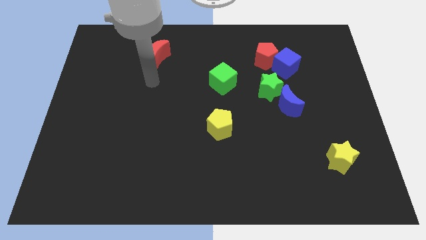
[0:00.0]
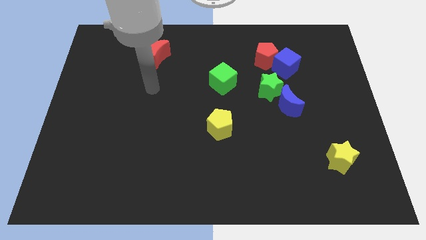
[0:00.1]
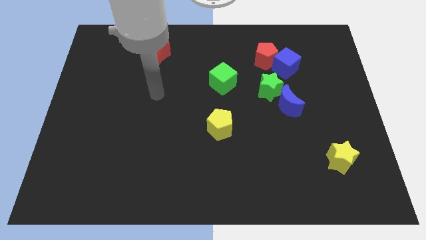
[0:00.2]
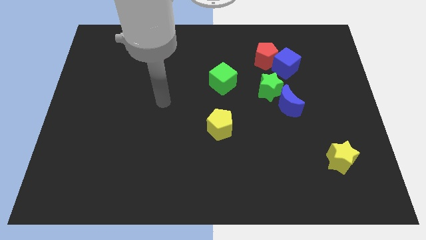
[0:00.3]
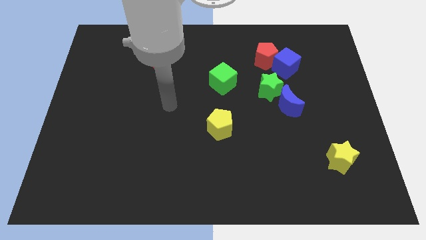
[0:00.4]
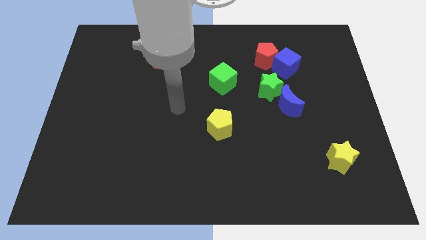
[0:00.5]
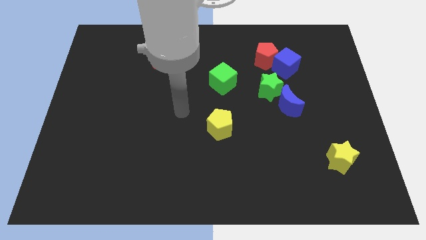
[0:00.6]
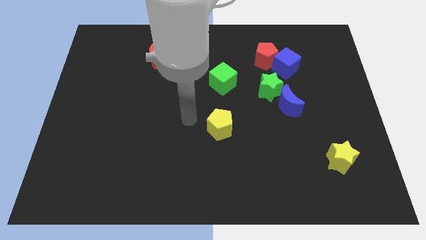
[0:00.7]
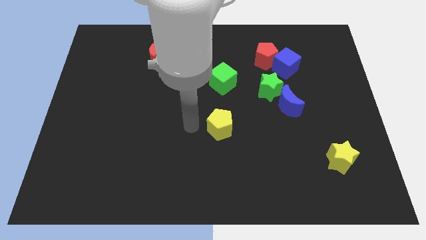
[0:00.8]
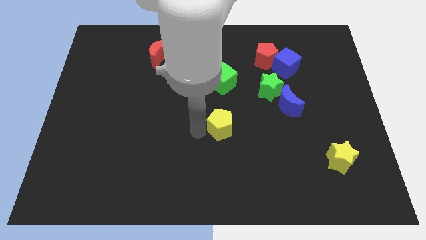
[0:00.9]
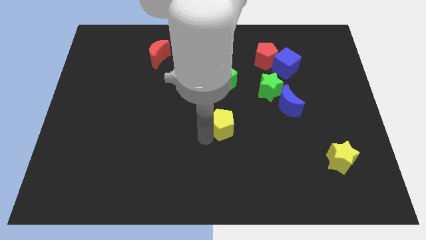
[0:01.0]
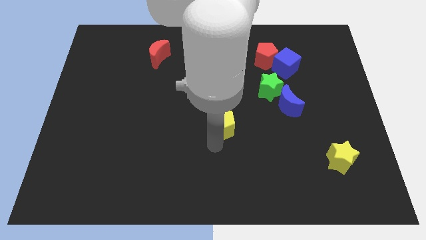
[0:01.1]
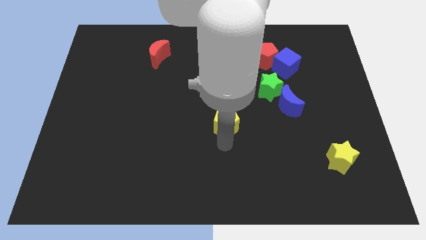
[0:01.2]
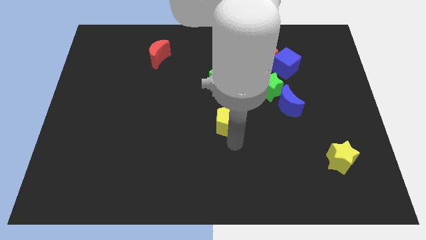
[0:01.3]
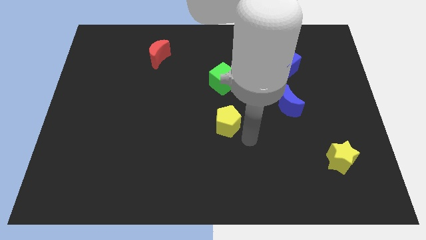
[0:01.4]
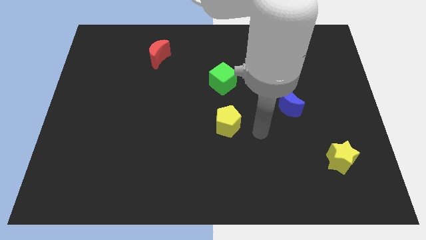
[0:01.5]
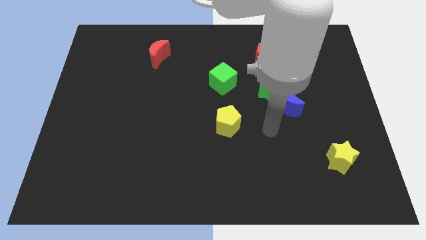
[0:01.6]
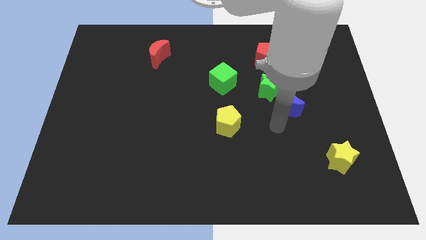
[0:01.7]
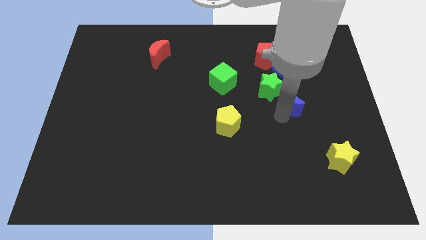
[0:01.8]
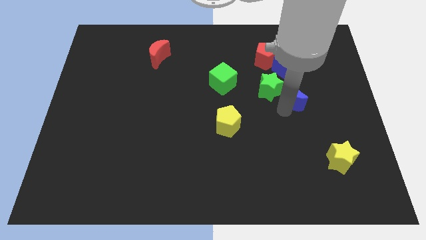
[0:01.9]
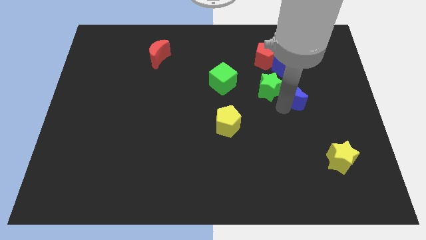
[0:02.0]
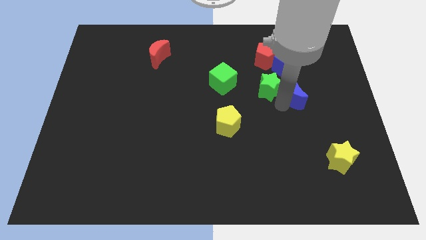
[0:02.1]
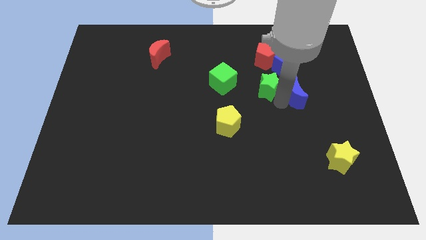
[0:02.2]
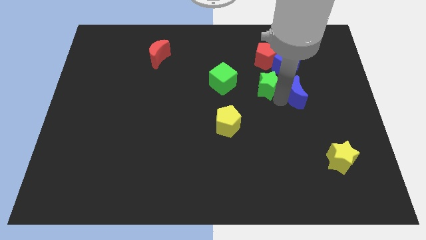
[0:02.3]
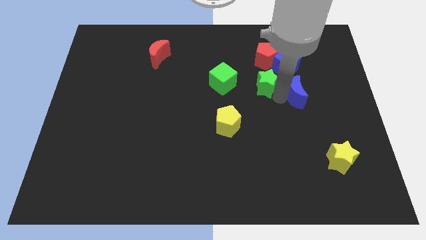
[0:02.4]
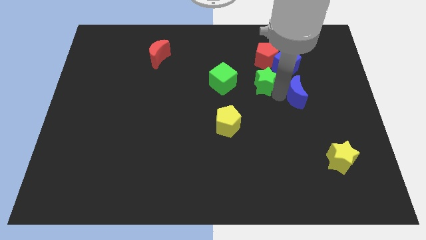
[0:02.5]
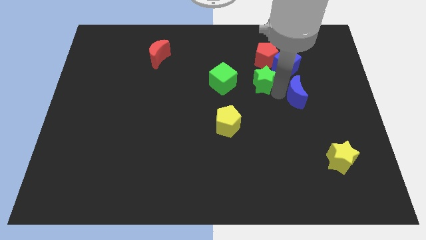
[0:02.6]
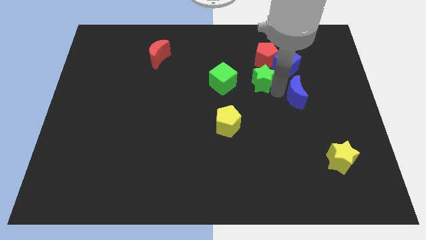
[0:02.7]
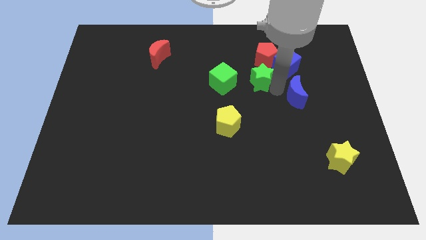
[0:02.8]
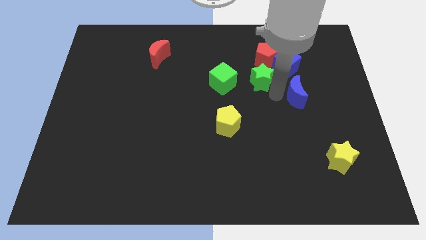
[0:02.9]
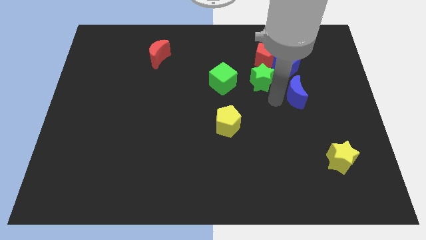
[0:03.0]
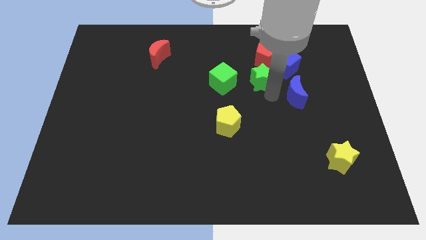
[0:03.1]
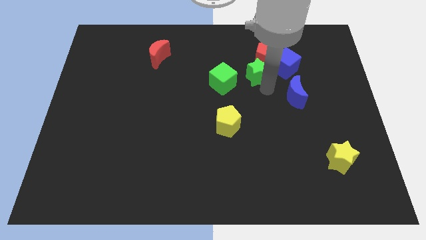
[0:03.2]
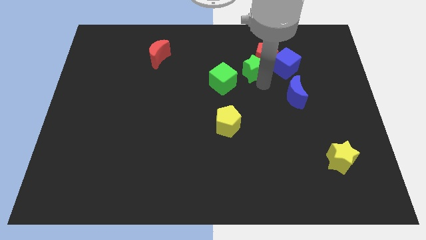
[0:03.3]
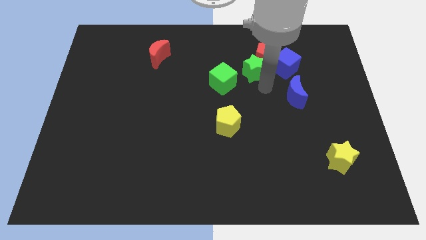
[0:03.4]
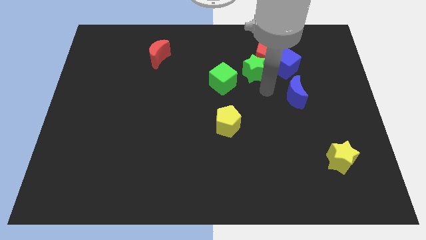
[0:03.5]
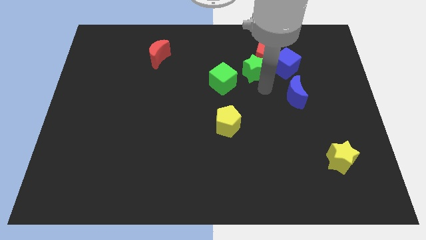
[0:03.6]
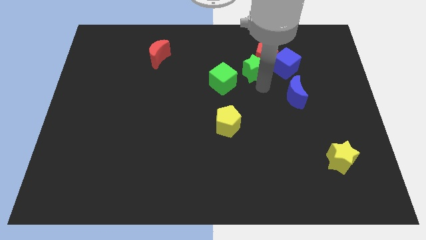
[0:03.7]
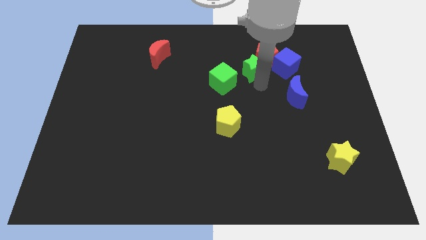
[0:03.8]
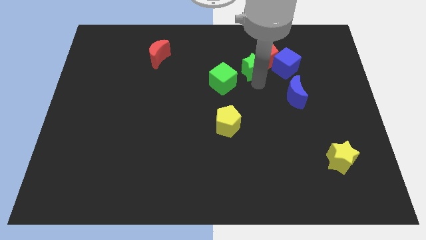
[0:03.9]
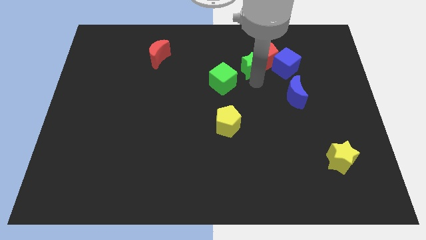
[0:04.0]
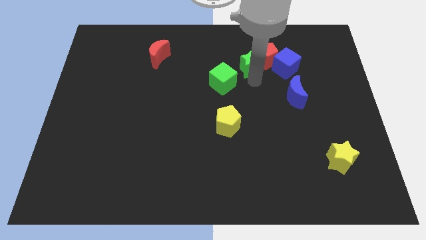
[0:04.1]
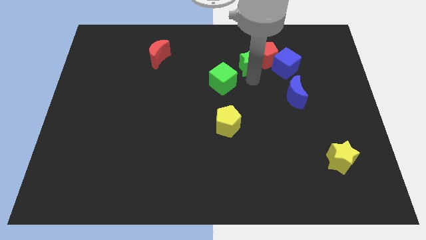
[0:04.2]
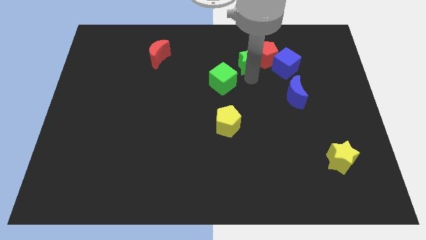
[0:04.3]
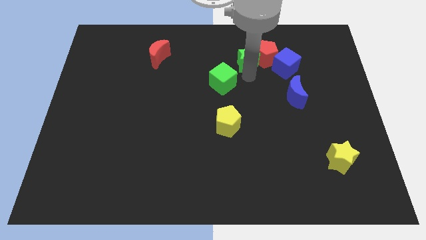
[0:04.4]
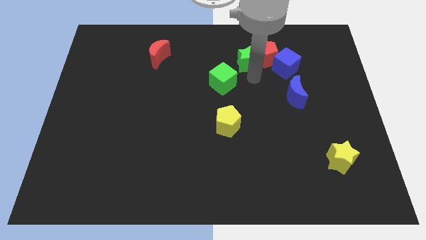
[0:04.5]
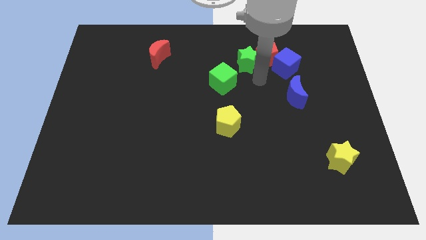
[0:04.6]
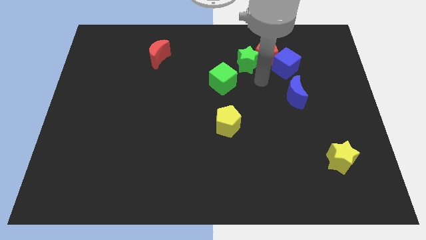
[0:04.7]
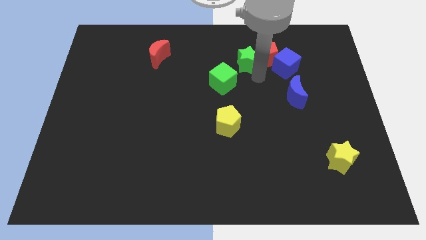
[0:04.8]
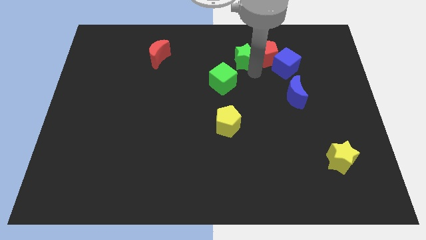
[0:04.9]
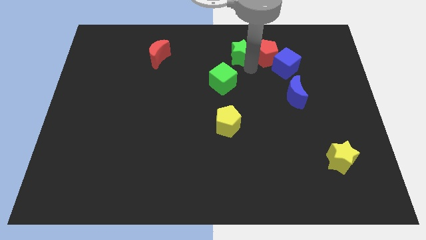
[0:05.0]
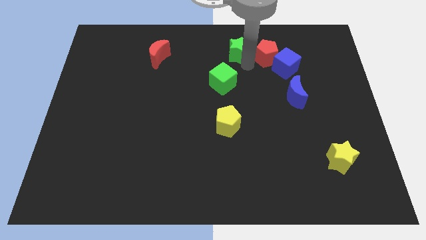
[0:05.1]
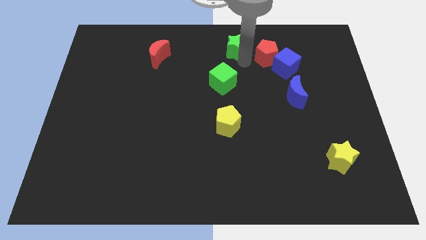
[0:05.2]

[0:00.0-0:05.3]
push the green star to the top side

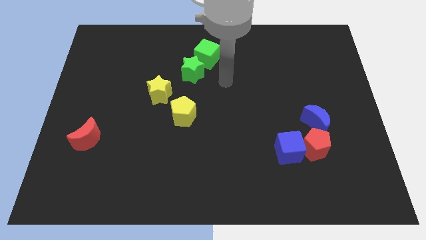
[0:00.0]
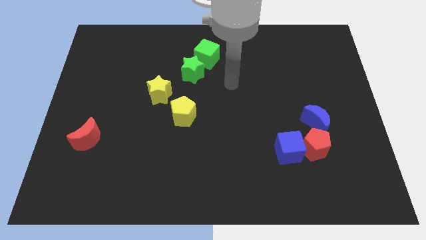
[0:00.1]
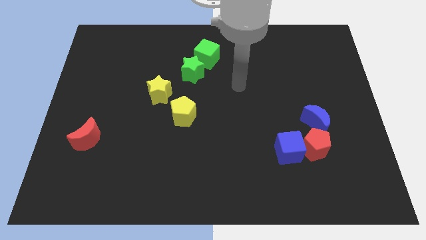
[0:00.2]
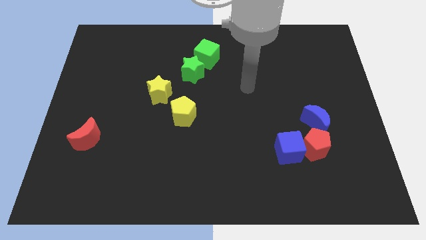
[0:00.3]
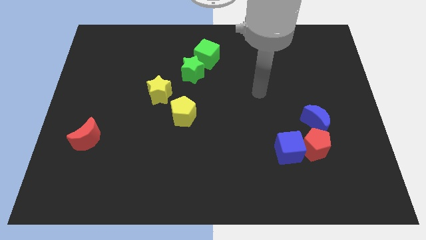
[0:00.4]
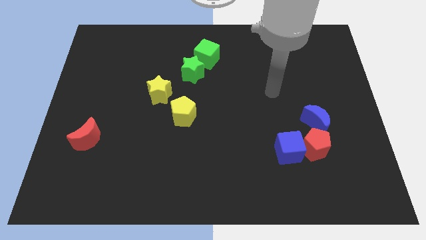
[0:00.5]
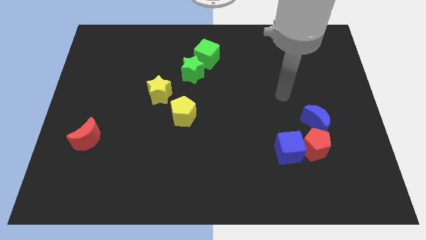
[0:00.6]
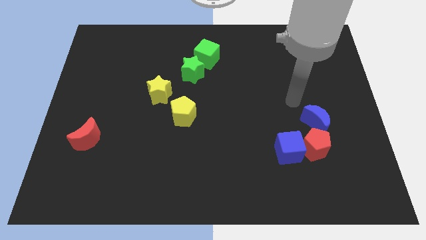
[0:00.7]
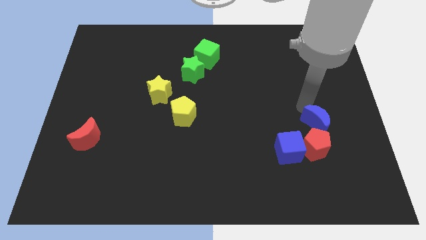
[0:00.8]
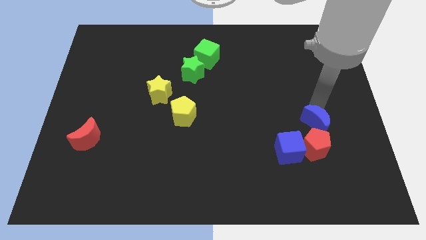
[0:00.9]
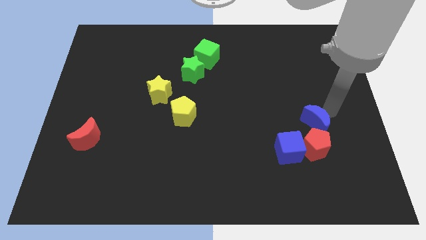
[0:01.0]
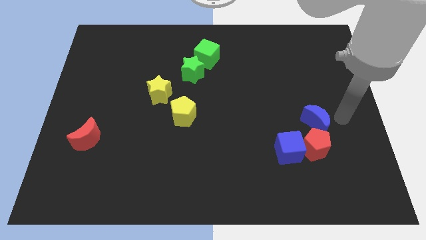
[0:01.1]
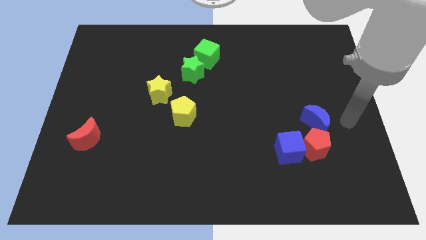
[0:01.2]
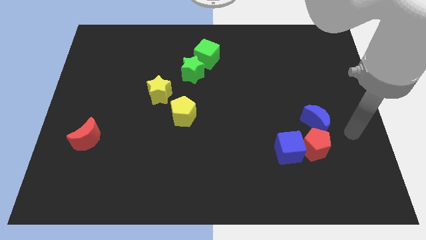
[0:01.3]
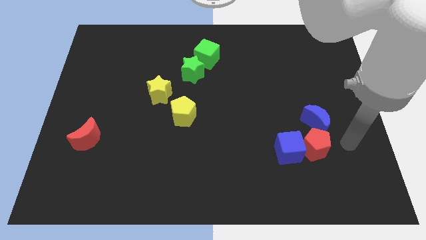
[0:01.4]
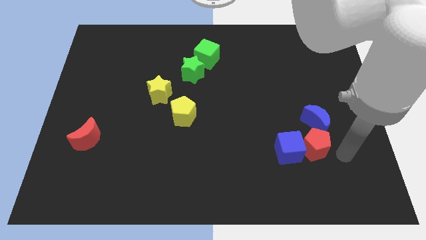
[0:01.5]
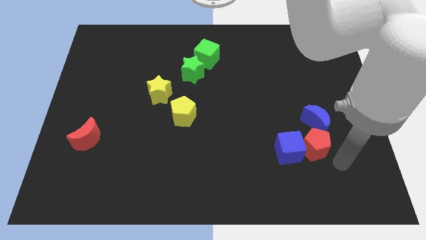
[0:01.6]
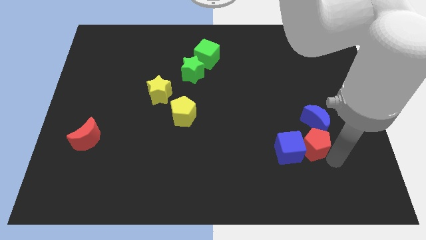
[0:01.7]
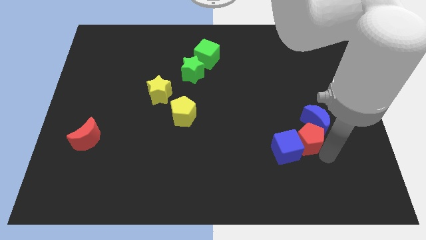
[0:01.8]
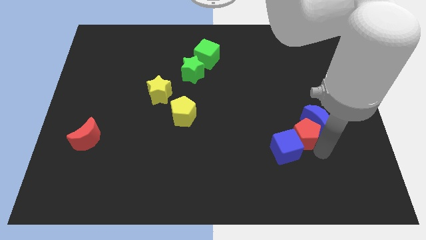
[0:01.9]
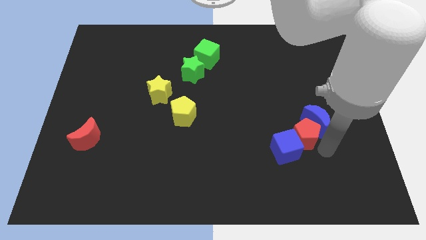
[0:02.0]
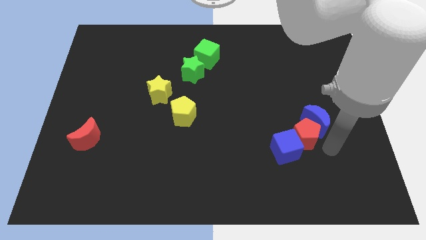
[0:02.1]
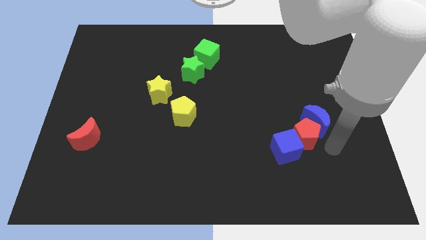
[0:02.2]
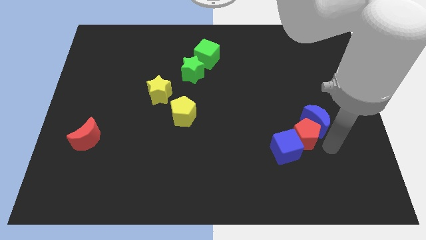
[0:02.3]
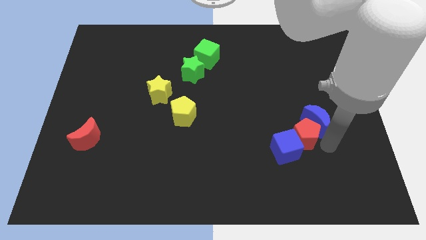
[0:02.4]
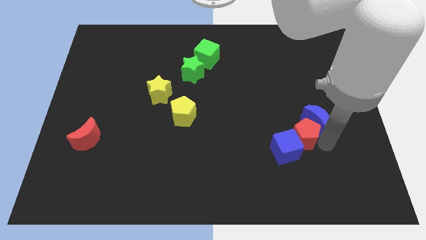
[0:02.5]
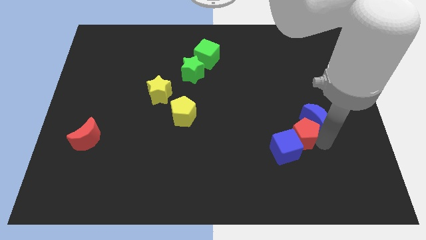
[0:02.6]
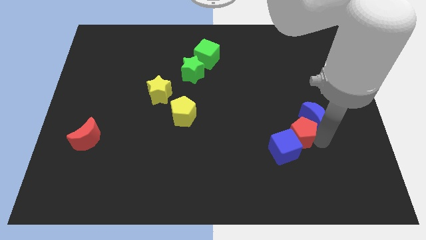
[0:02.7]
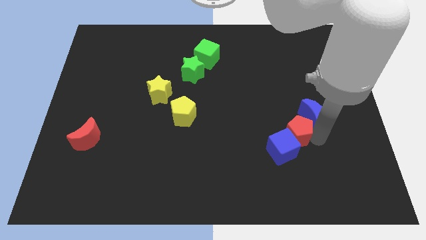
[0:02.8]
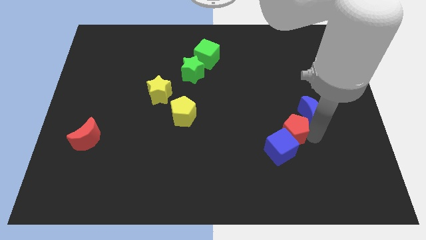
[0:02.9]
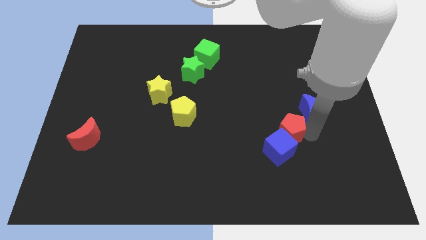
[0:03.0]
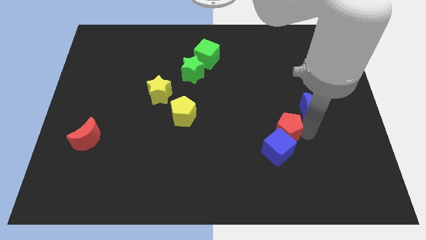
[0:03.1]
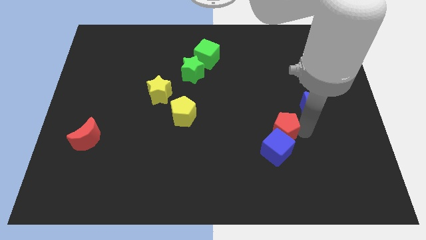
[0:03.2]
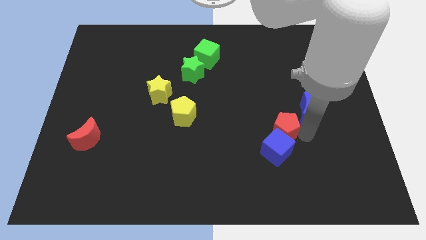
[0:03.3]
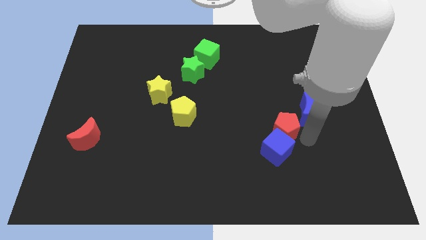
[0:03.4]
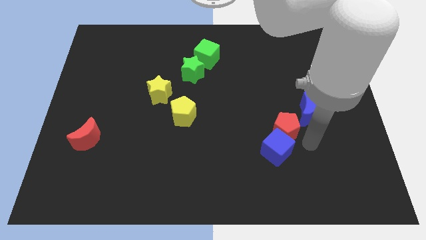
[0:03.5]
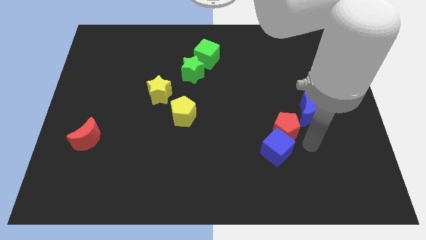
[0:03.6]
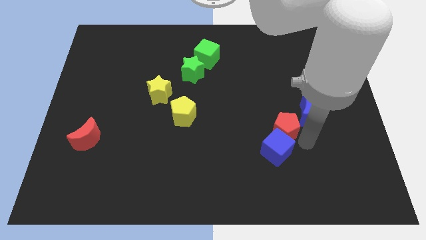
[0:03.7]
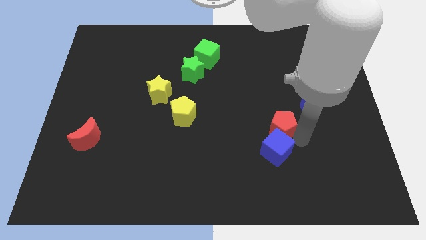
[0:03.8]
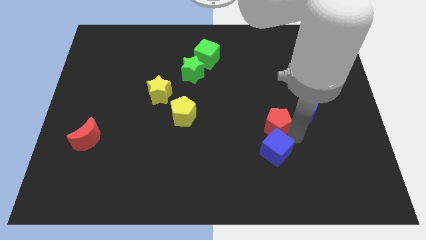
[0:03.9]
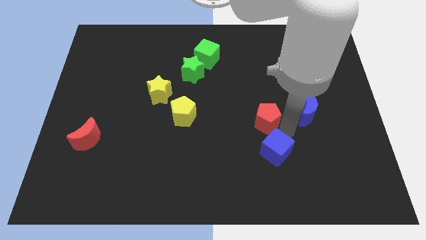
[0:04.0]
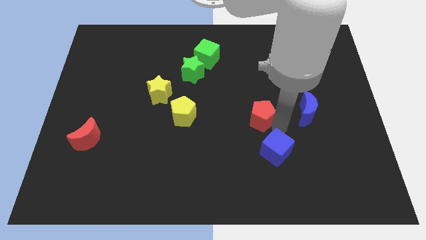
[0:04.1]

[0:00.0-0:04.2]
put the red pentagon to the center
